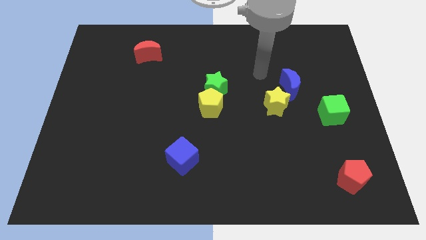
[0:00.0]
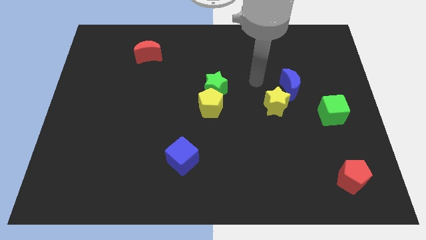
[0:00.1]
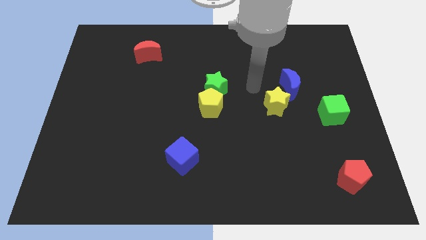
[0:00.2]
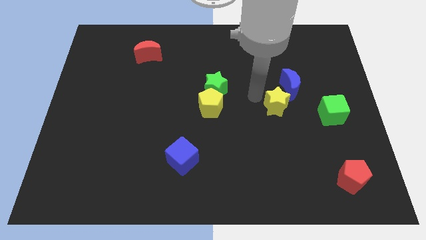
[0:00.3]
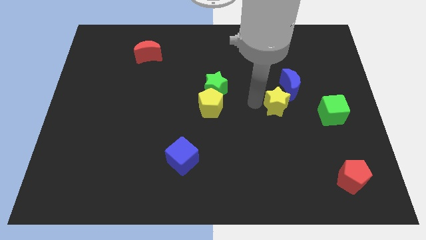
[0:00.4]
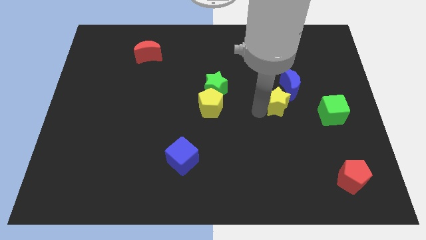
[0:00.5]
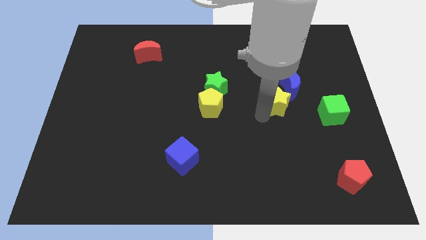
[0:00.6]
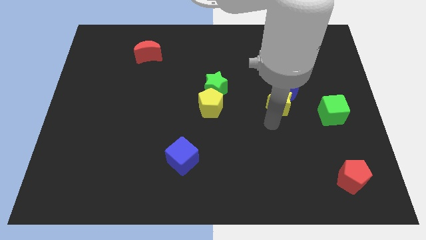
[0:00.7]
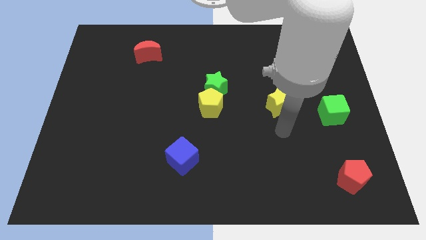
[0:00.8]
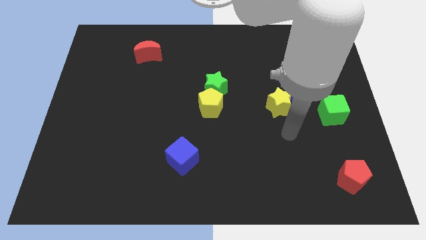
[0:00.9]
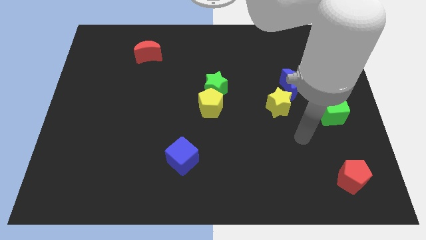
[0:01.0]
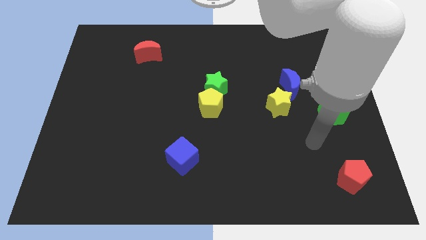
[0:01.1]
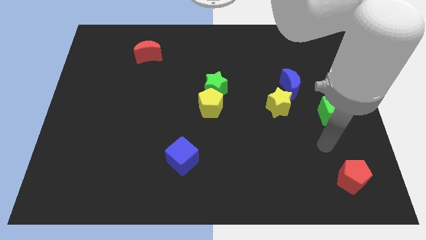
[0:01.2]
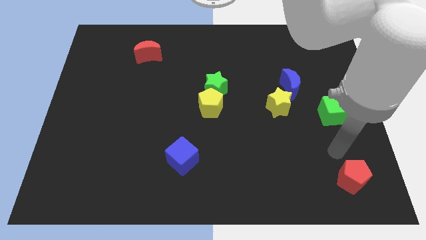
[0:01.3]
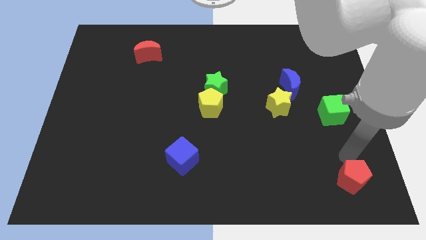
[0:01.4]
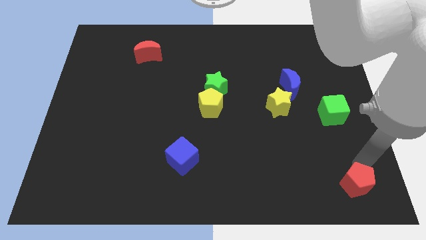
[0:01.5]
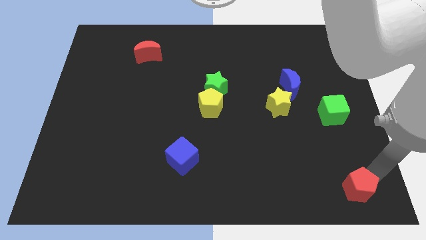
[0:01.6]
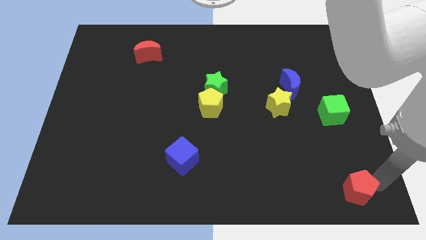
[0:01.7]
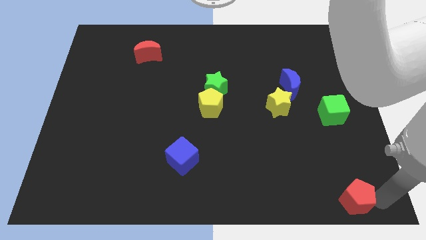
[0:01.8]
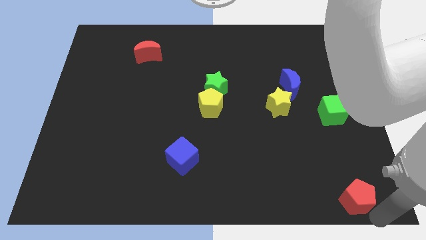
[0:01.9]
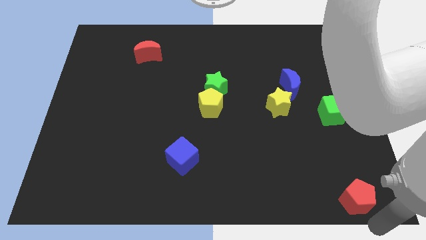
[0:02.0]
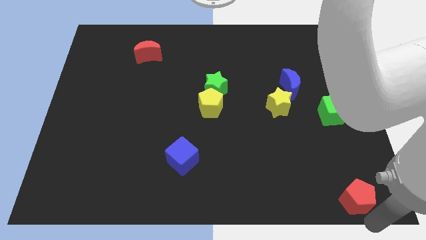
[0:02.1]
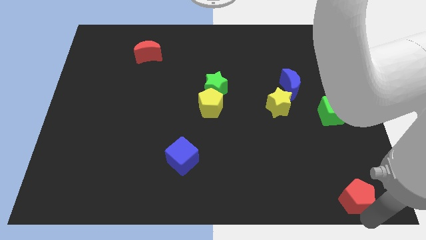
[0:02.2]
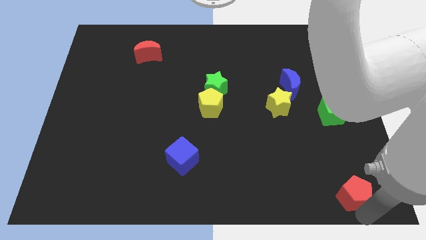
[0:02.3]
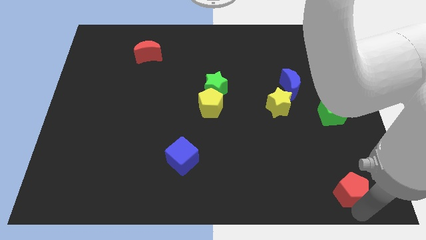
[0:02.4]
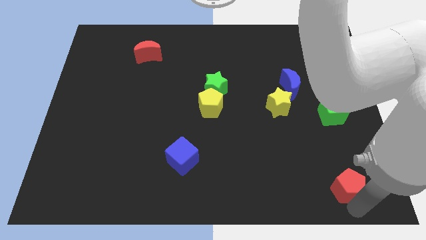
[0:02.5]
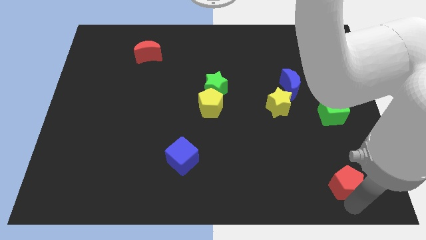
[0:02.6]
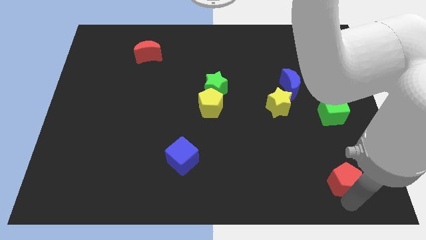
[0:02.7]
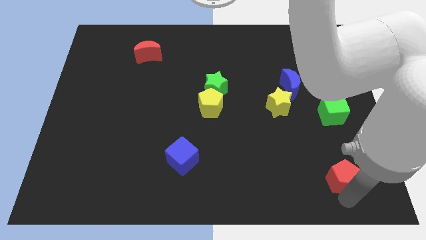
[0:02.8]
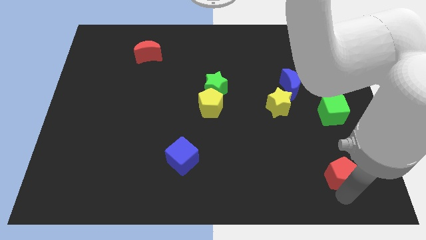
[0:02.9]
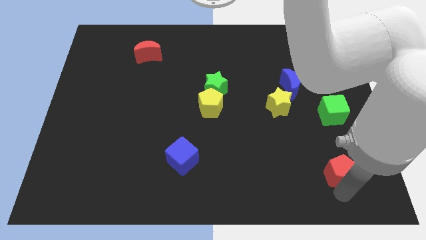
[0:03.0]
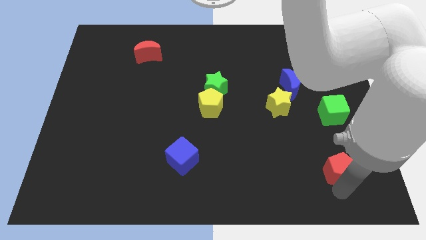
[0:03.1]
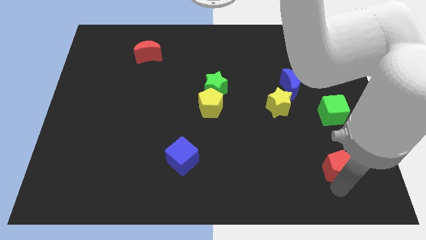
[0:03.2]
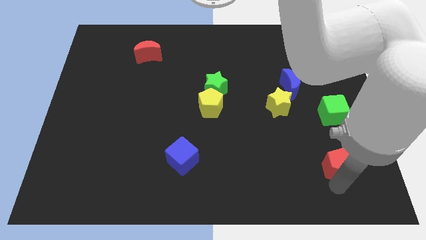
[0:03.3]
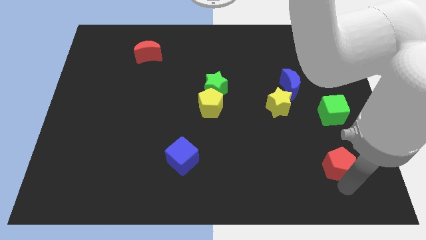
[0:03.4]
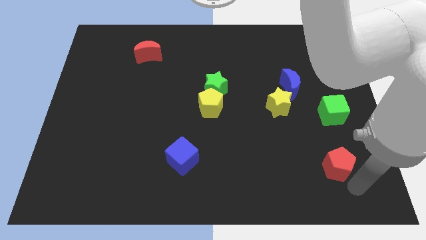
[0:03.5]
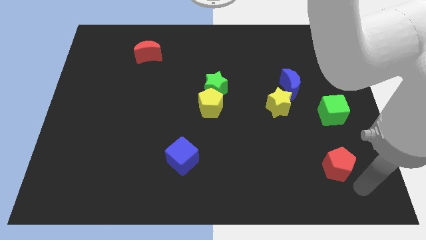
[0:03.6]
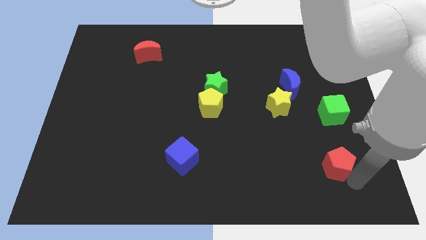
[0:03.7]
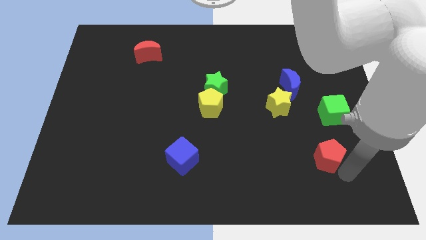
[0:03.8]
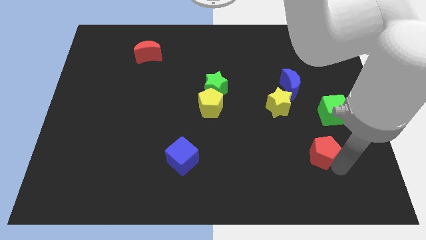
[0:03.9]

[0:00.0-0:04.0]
push the red pentagon a little bit upwards and left diagonally

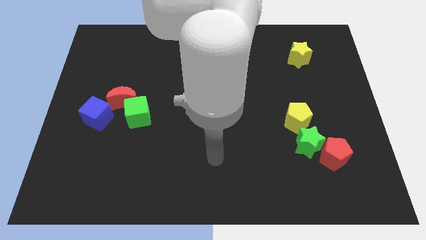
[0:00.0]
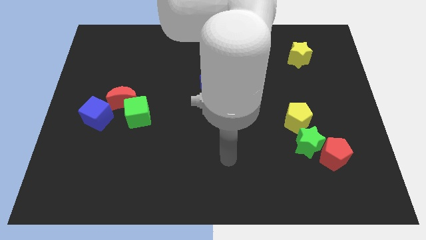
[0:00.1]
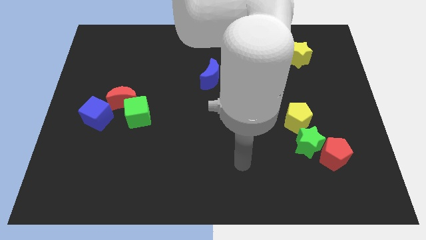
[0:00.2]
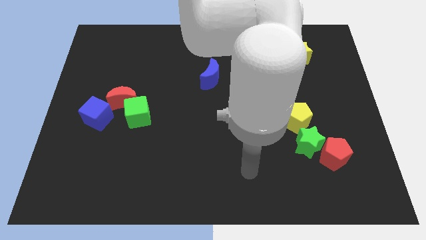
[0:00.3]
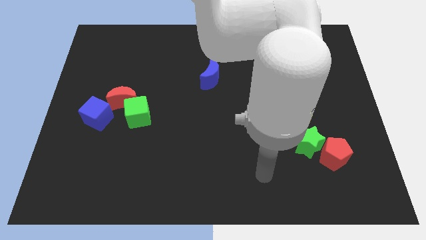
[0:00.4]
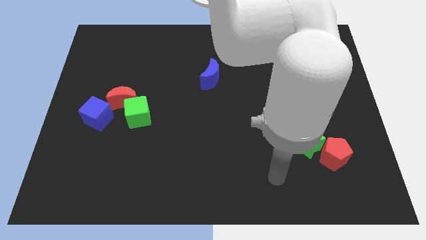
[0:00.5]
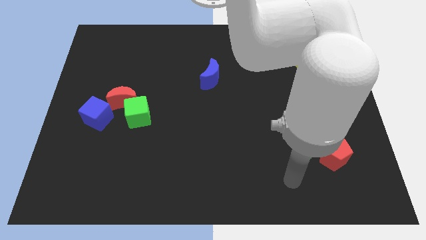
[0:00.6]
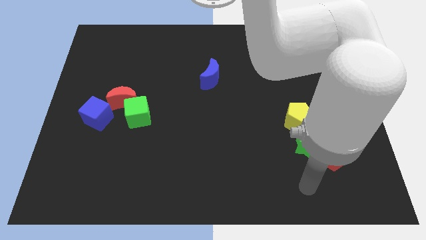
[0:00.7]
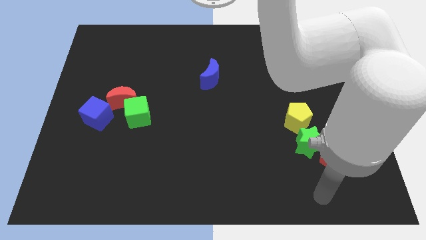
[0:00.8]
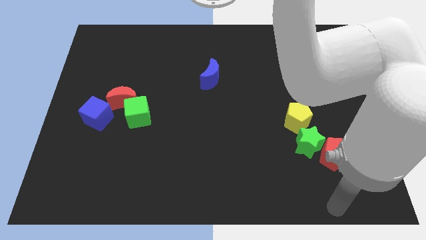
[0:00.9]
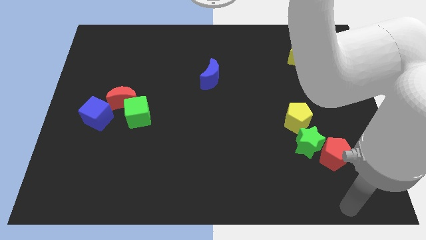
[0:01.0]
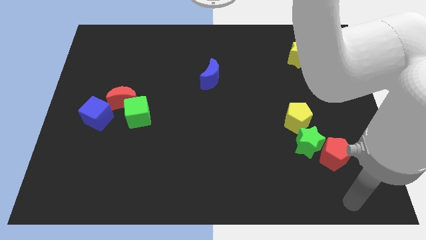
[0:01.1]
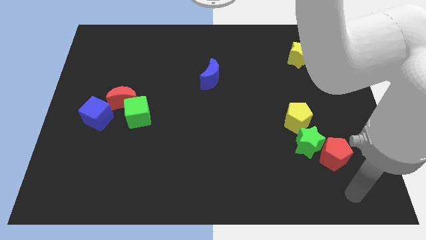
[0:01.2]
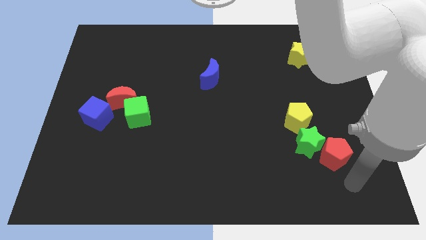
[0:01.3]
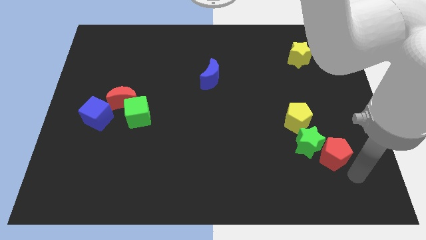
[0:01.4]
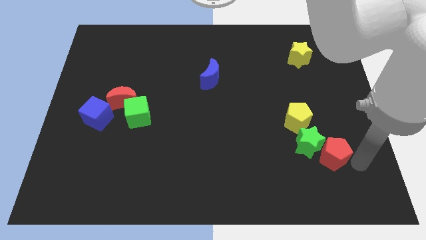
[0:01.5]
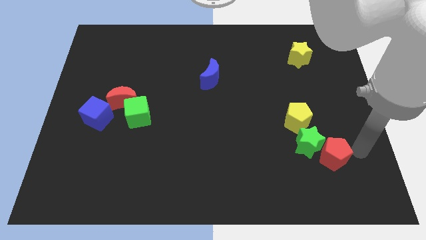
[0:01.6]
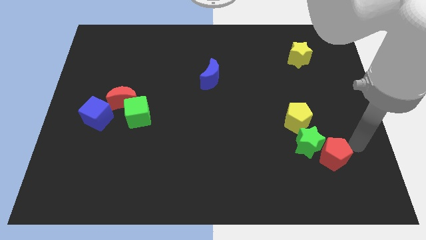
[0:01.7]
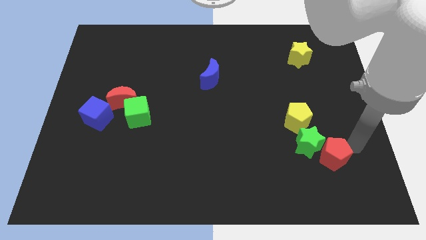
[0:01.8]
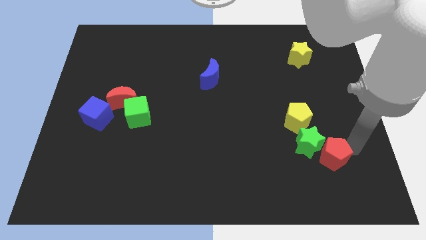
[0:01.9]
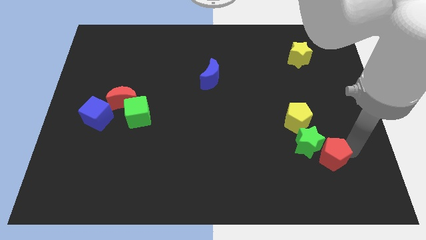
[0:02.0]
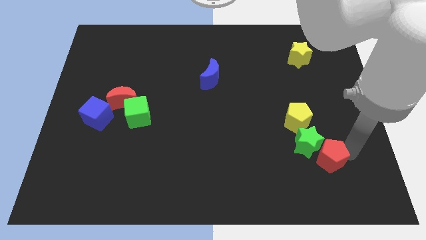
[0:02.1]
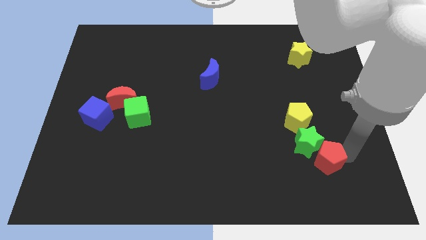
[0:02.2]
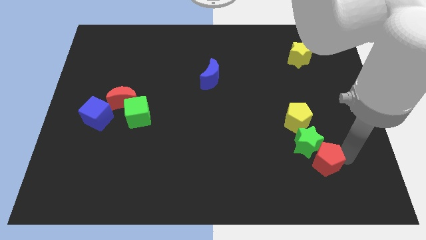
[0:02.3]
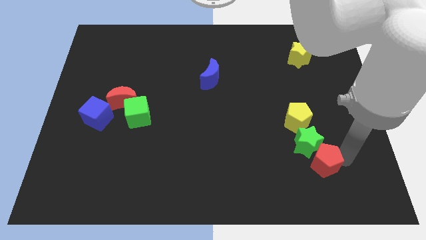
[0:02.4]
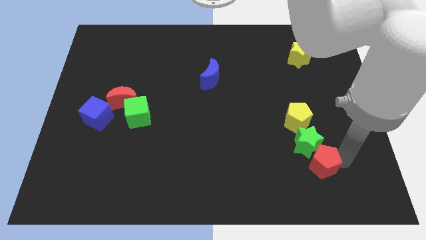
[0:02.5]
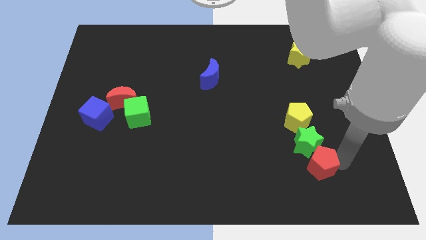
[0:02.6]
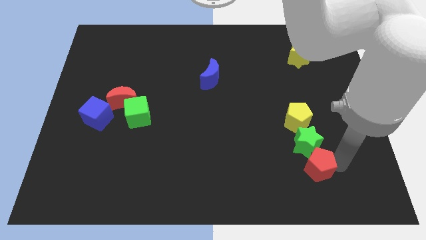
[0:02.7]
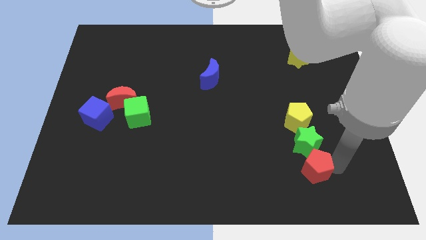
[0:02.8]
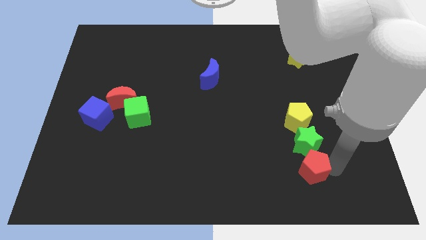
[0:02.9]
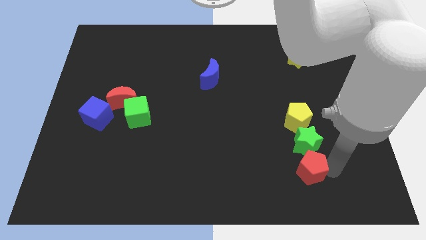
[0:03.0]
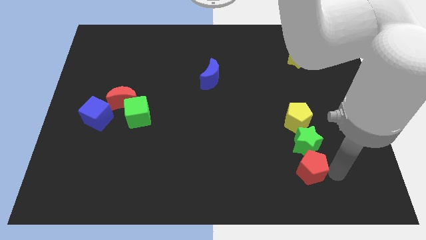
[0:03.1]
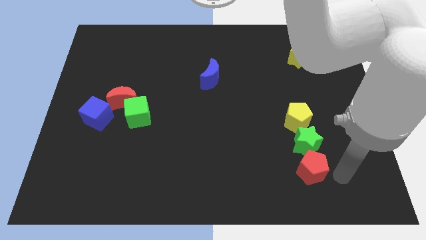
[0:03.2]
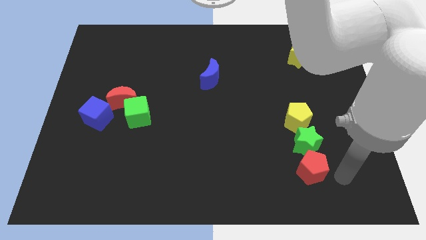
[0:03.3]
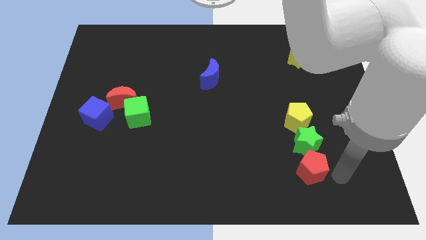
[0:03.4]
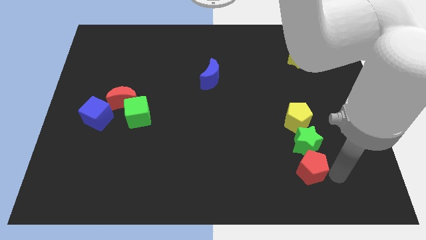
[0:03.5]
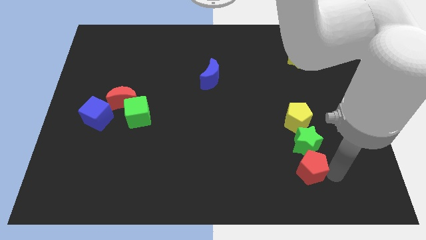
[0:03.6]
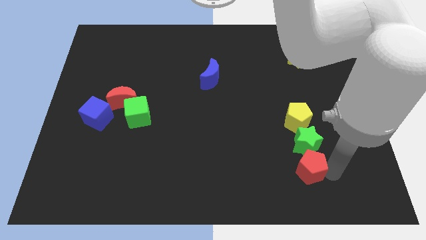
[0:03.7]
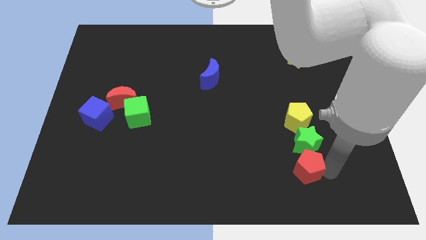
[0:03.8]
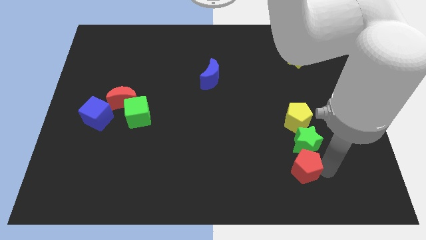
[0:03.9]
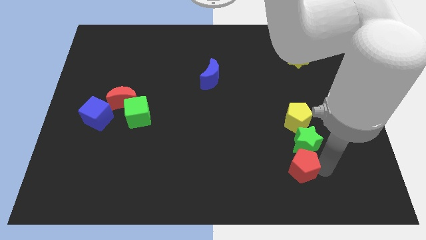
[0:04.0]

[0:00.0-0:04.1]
push the red pentagon to the left somewhat
